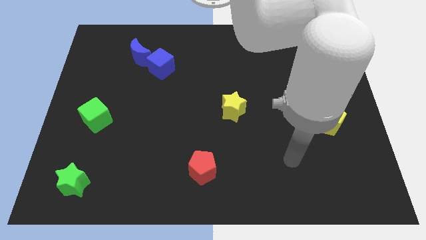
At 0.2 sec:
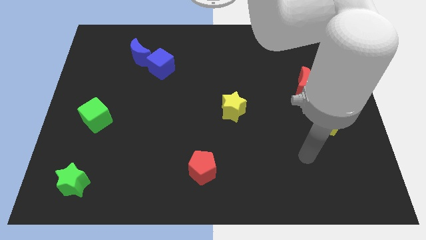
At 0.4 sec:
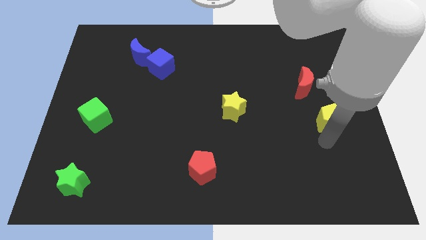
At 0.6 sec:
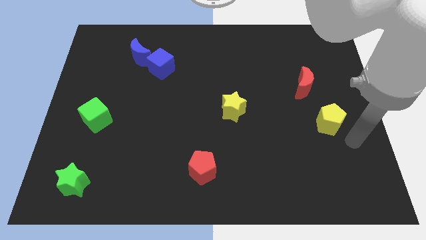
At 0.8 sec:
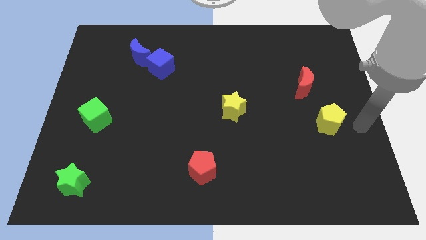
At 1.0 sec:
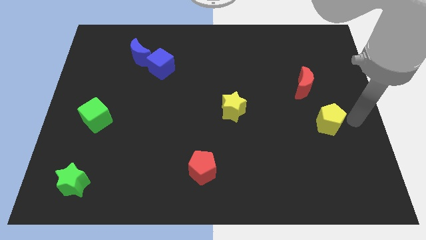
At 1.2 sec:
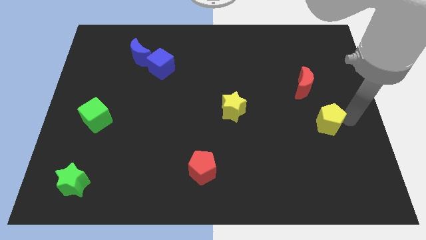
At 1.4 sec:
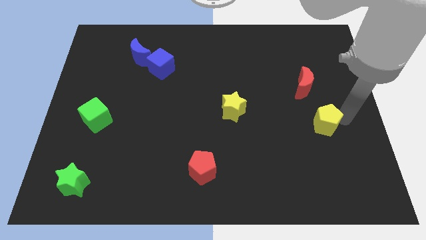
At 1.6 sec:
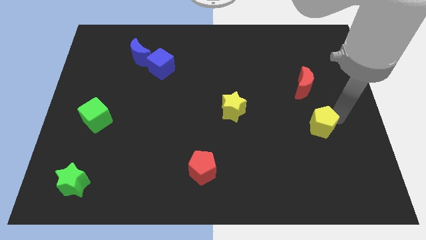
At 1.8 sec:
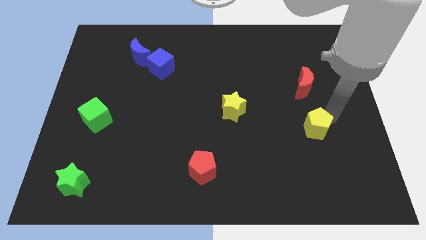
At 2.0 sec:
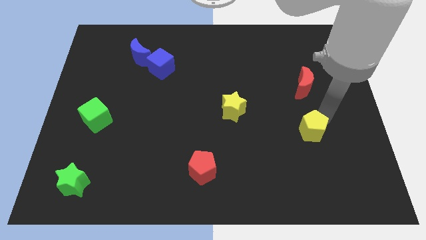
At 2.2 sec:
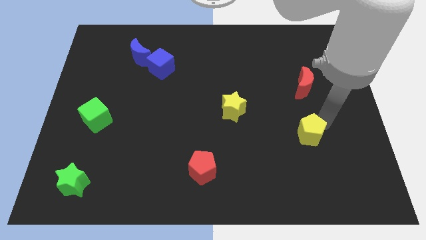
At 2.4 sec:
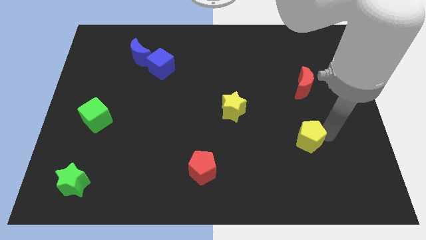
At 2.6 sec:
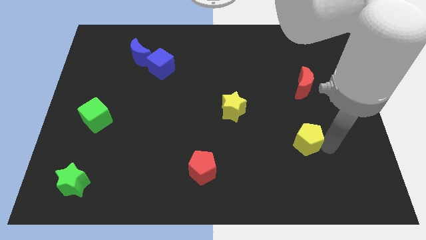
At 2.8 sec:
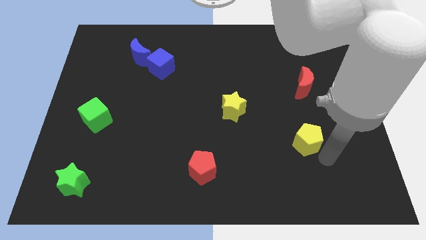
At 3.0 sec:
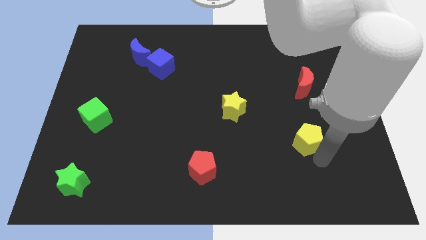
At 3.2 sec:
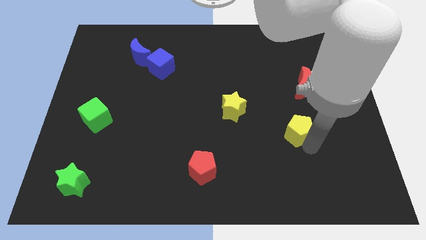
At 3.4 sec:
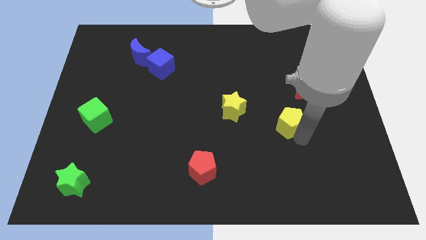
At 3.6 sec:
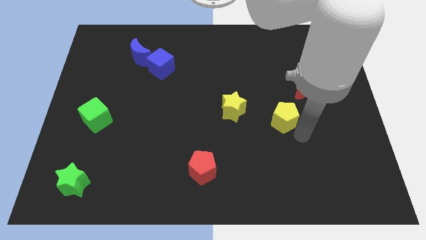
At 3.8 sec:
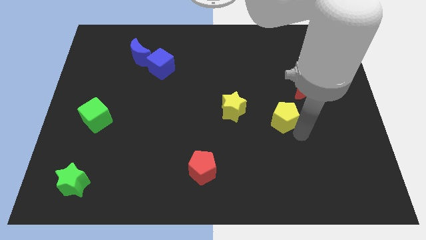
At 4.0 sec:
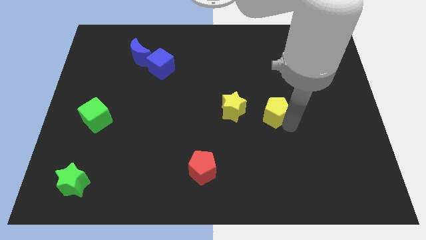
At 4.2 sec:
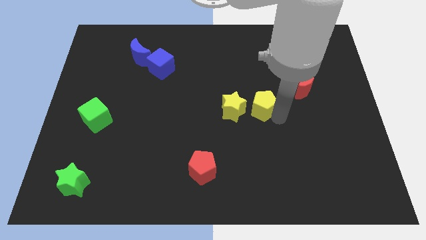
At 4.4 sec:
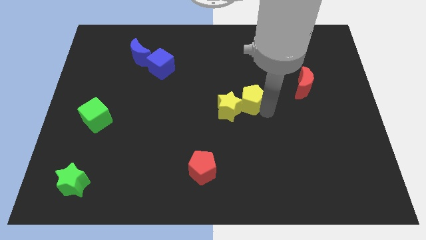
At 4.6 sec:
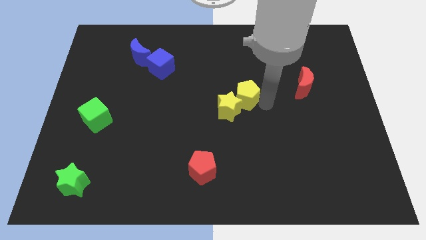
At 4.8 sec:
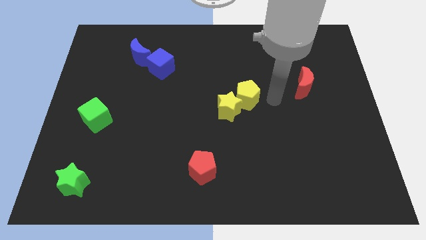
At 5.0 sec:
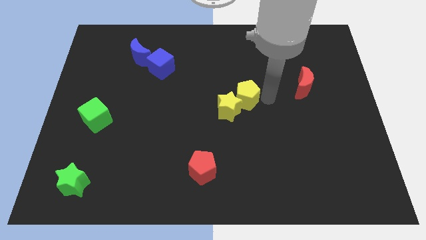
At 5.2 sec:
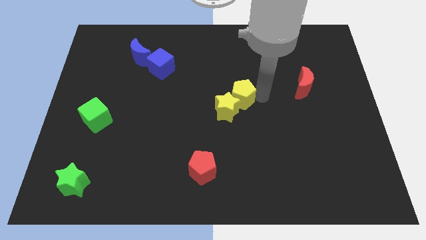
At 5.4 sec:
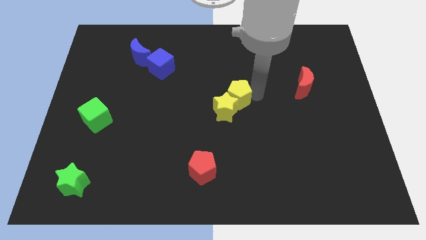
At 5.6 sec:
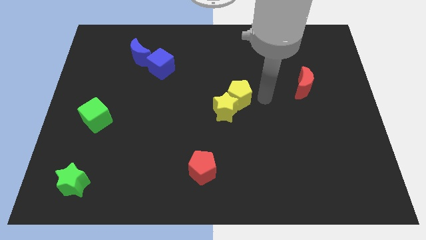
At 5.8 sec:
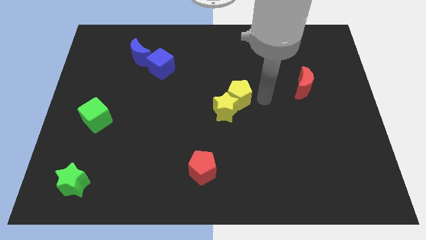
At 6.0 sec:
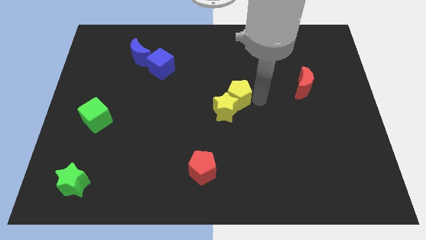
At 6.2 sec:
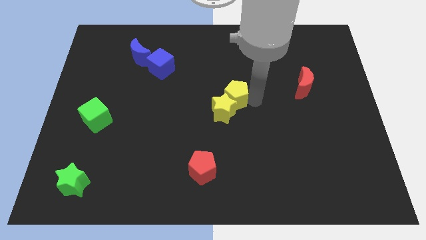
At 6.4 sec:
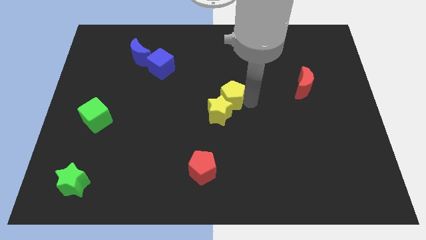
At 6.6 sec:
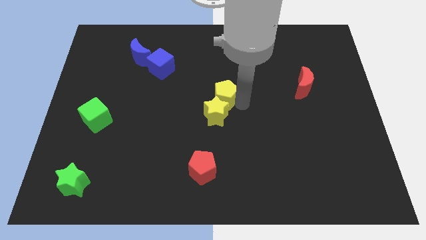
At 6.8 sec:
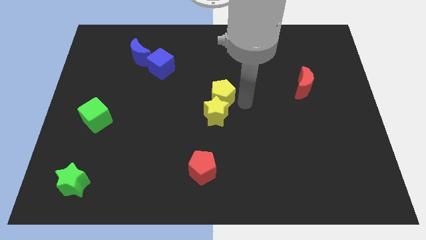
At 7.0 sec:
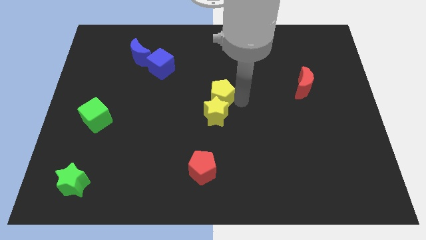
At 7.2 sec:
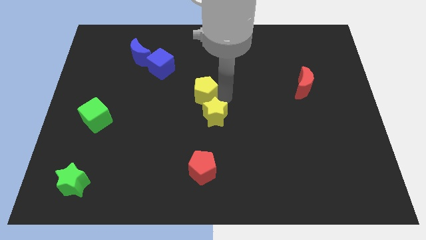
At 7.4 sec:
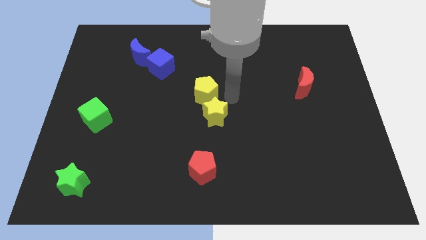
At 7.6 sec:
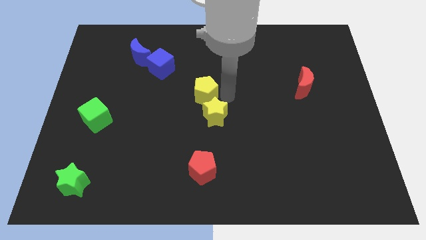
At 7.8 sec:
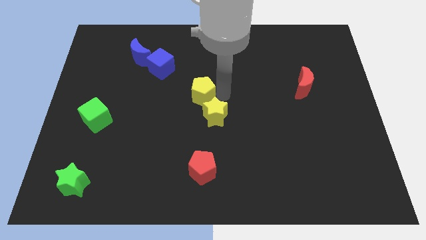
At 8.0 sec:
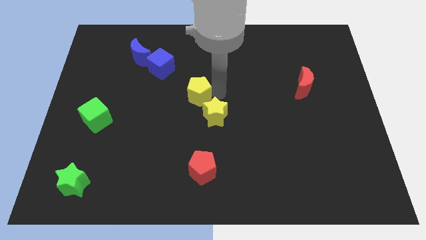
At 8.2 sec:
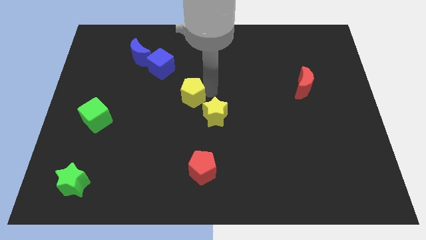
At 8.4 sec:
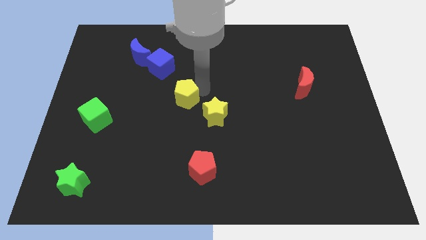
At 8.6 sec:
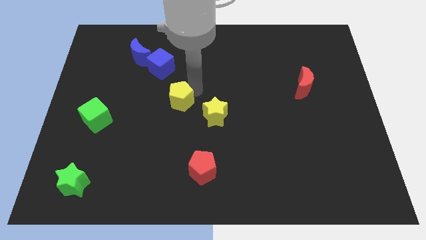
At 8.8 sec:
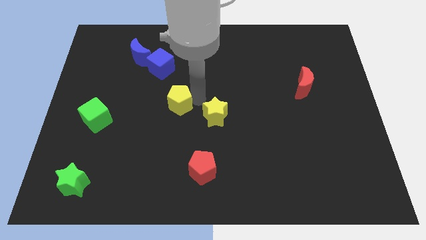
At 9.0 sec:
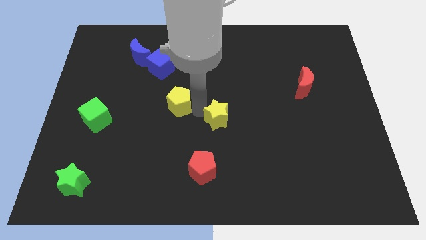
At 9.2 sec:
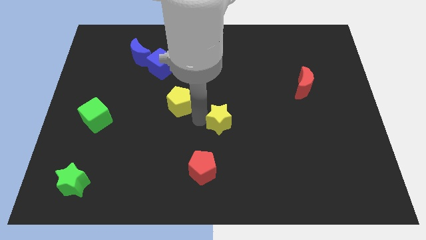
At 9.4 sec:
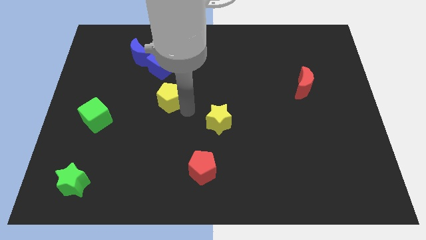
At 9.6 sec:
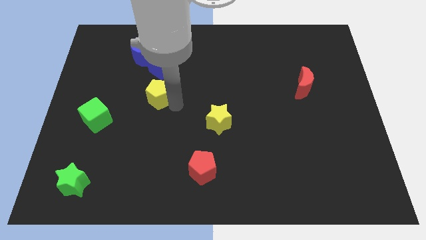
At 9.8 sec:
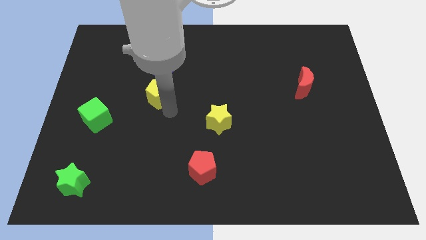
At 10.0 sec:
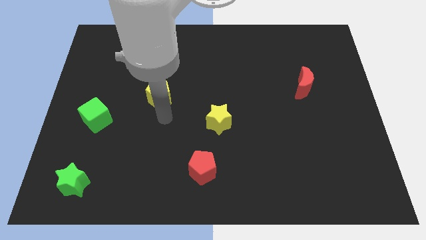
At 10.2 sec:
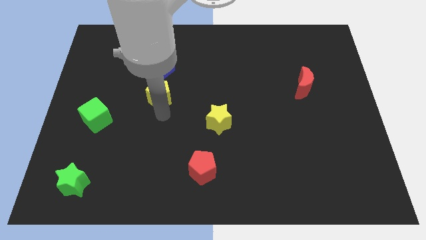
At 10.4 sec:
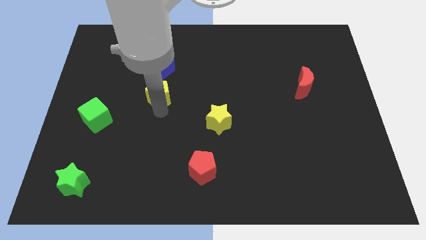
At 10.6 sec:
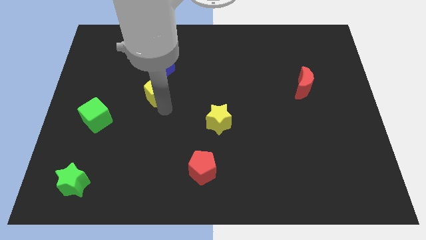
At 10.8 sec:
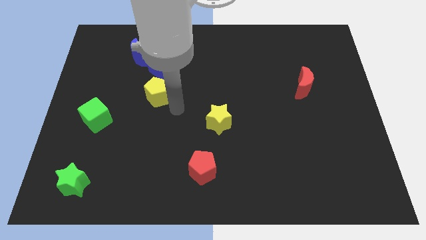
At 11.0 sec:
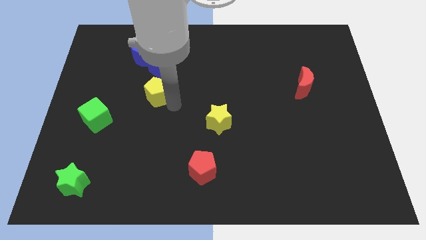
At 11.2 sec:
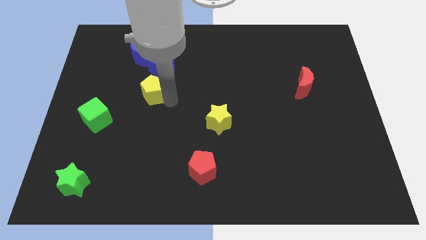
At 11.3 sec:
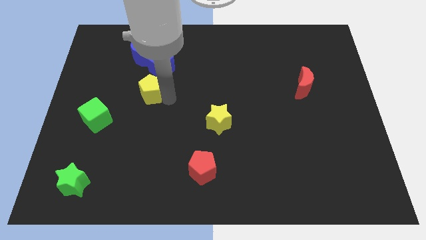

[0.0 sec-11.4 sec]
put the yellow pentagon diagonally down and to the left of the blue cube

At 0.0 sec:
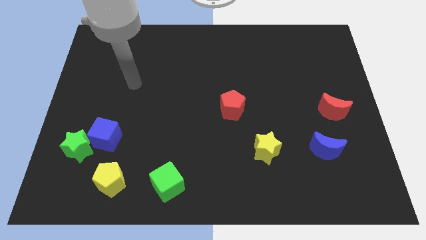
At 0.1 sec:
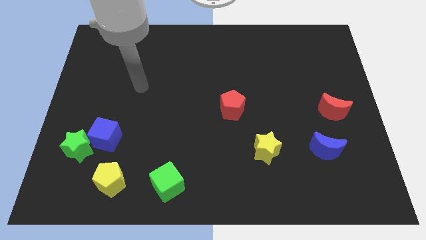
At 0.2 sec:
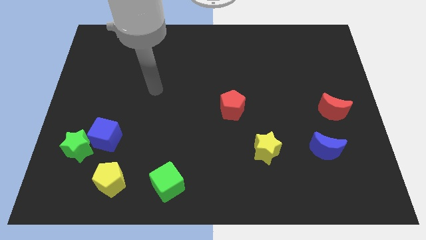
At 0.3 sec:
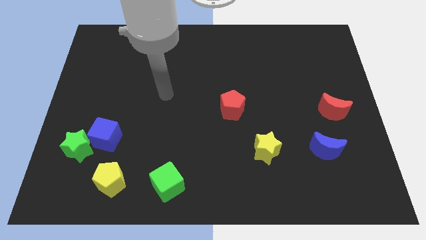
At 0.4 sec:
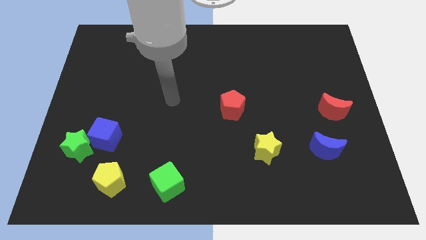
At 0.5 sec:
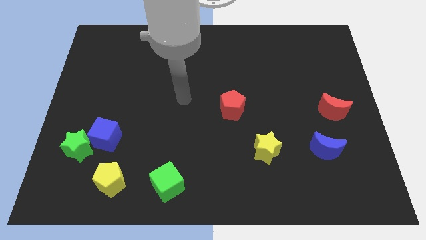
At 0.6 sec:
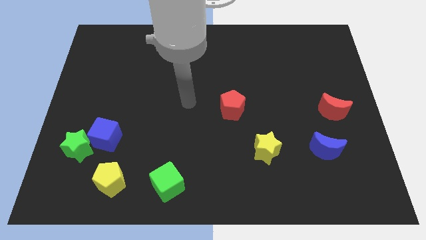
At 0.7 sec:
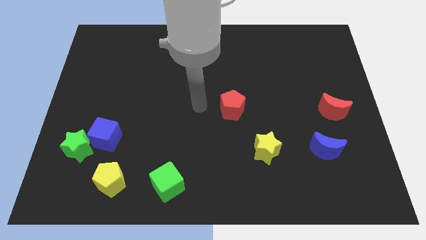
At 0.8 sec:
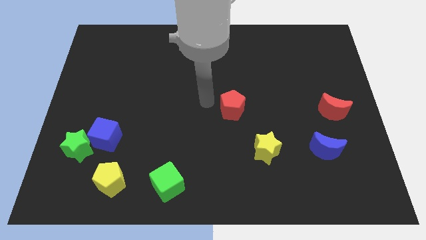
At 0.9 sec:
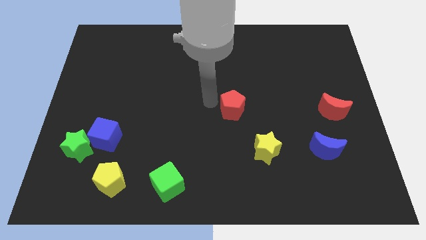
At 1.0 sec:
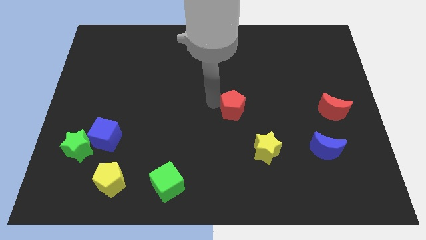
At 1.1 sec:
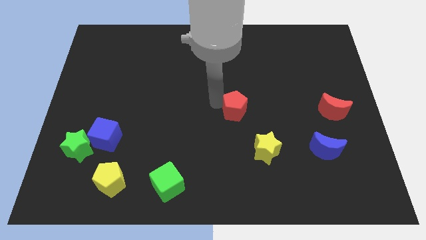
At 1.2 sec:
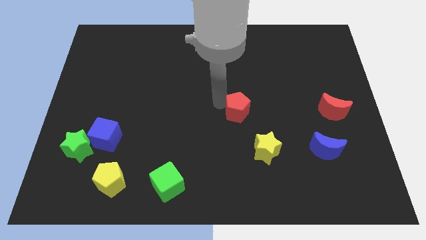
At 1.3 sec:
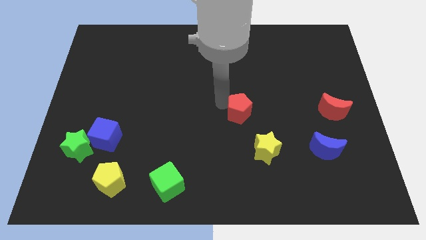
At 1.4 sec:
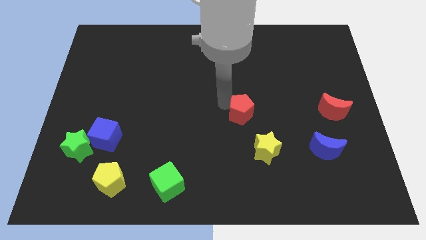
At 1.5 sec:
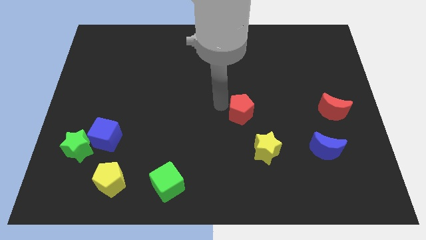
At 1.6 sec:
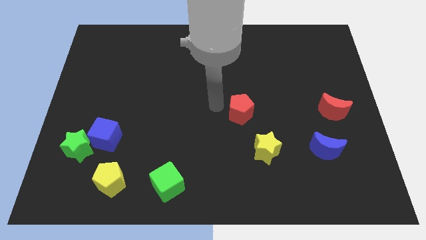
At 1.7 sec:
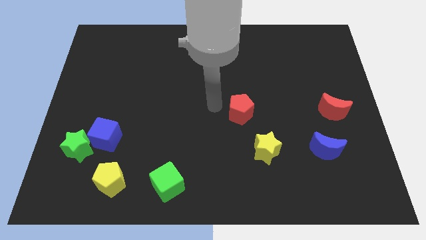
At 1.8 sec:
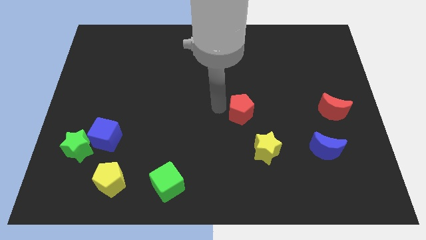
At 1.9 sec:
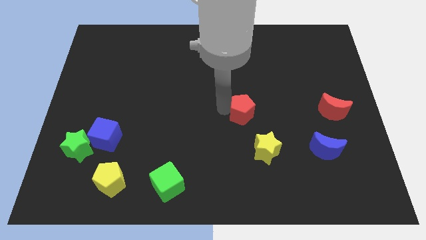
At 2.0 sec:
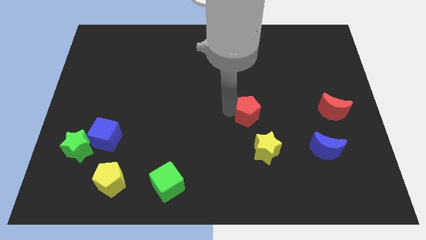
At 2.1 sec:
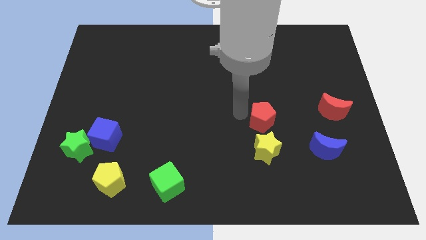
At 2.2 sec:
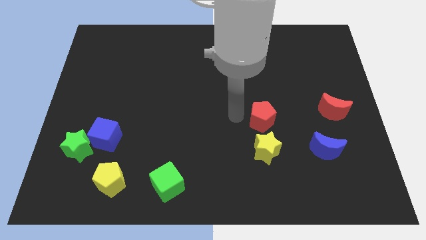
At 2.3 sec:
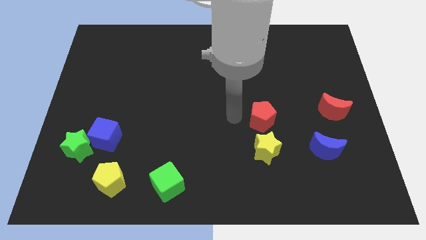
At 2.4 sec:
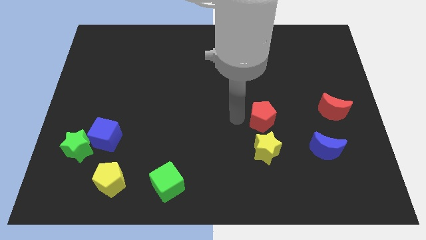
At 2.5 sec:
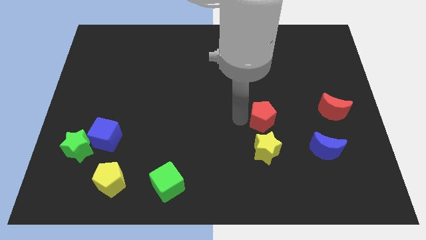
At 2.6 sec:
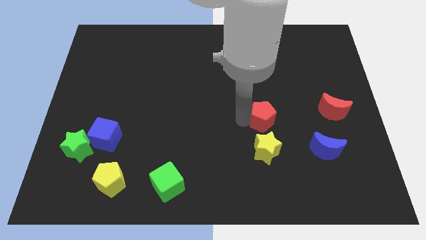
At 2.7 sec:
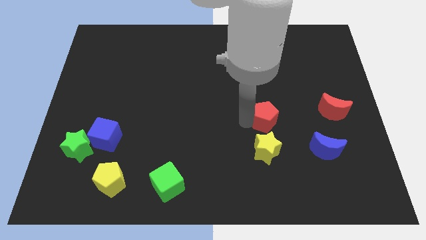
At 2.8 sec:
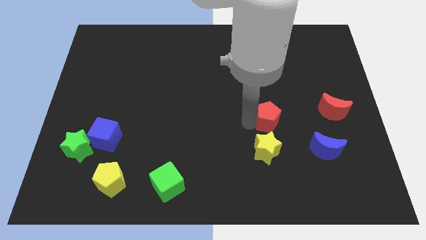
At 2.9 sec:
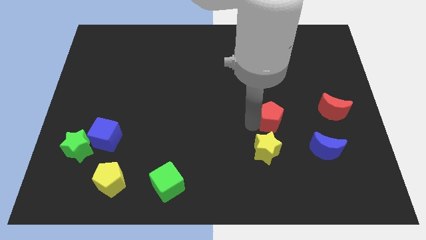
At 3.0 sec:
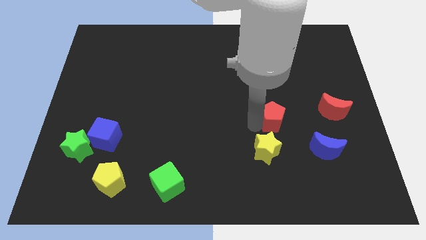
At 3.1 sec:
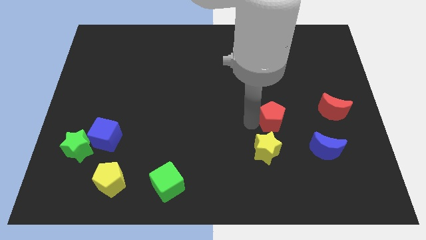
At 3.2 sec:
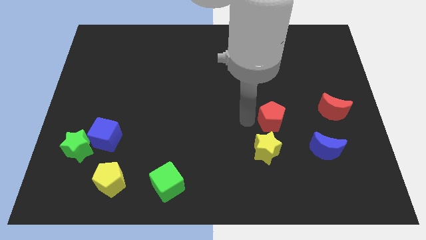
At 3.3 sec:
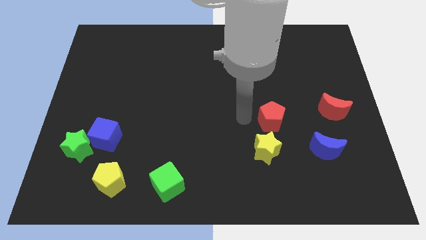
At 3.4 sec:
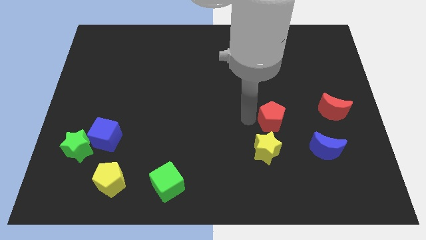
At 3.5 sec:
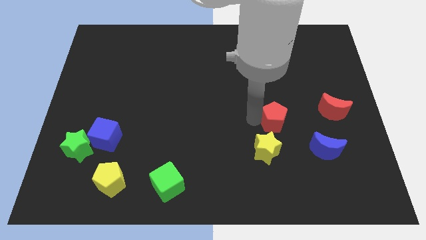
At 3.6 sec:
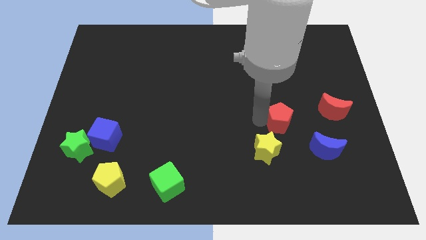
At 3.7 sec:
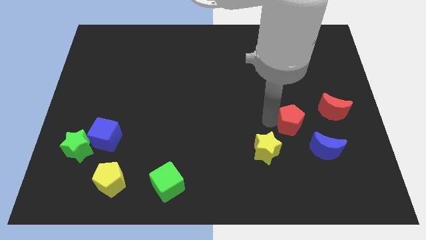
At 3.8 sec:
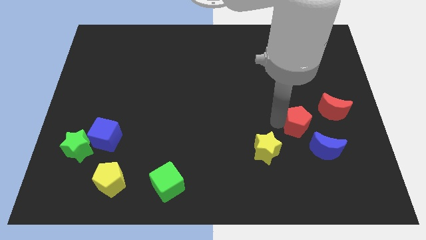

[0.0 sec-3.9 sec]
move the red pentagon to the bottom left side of the red moon
